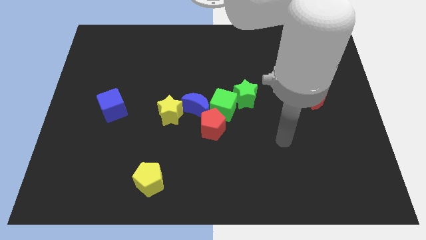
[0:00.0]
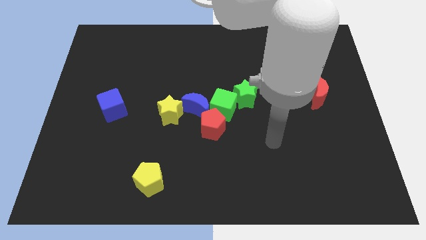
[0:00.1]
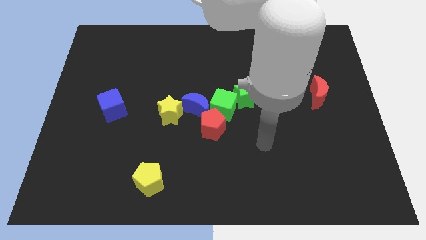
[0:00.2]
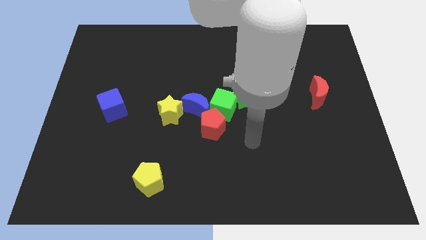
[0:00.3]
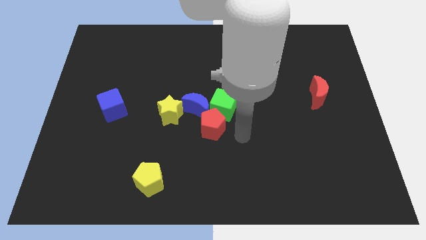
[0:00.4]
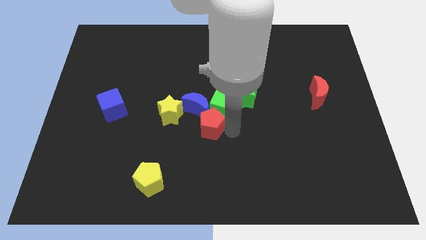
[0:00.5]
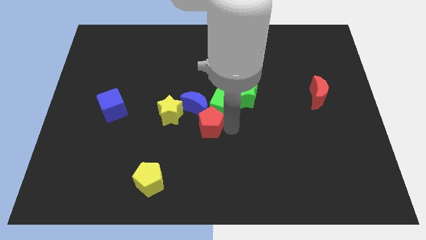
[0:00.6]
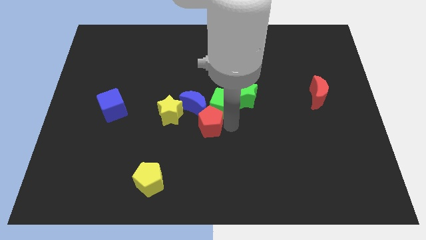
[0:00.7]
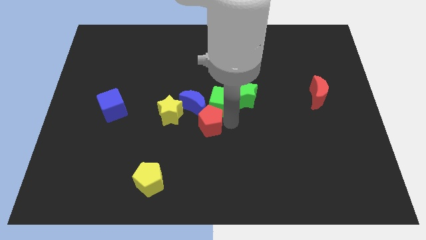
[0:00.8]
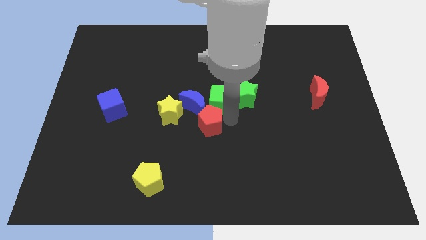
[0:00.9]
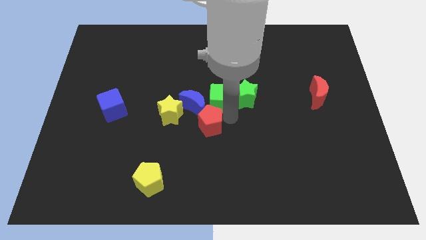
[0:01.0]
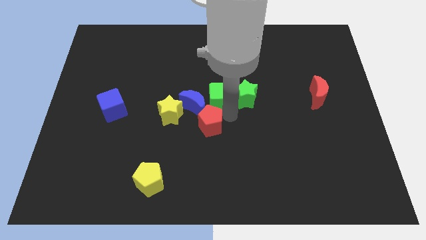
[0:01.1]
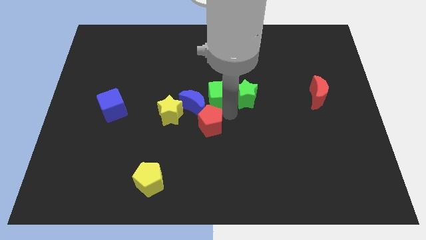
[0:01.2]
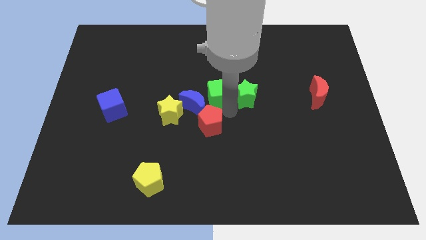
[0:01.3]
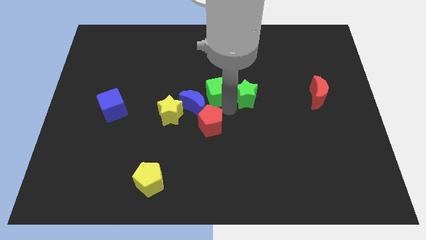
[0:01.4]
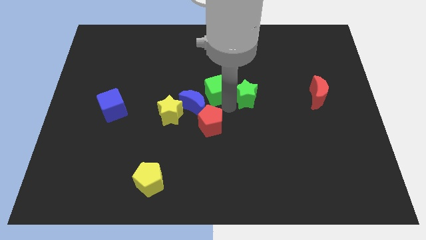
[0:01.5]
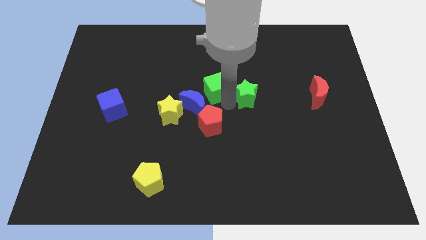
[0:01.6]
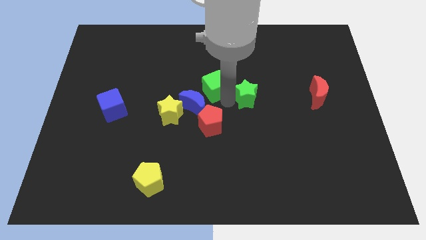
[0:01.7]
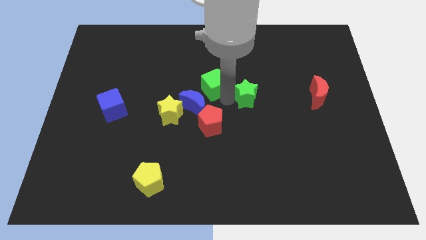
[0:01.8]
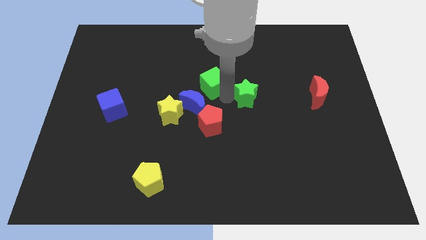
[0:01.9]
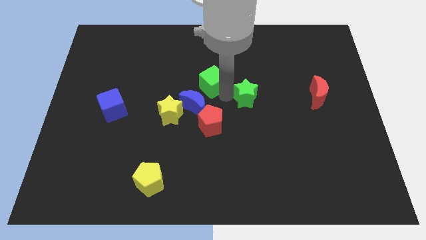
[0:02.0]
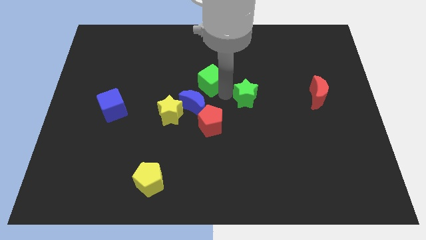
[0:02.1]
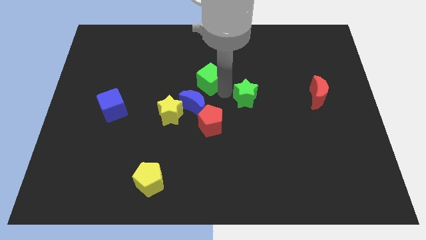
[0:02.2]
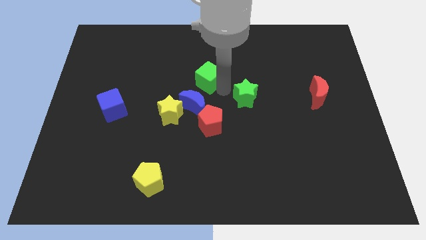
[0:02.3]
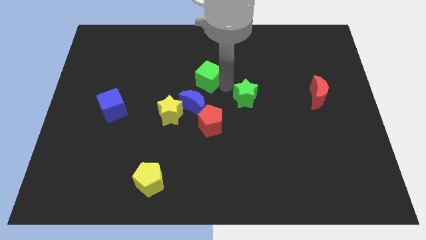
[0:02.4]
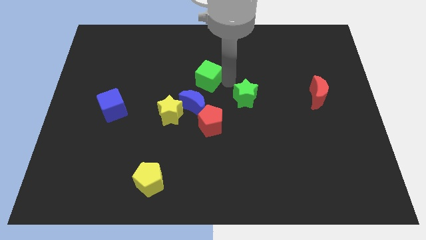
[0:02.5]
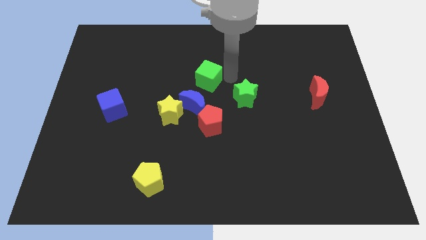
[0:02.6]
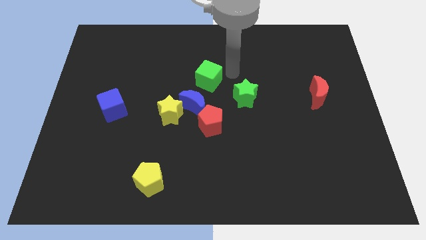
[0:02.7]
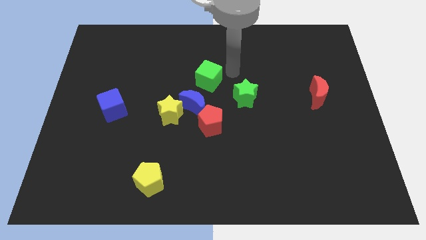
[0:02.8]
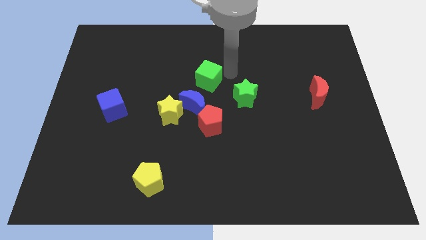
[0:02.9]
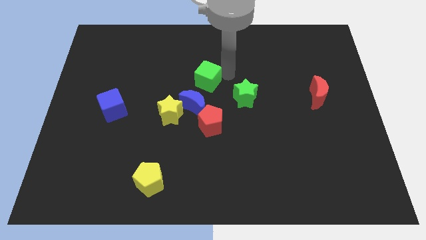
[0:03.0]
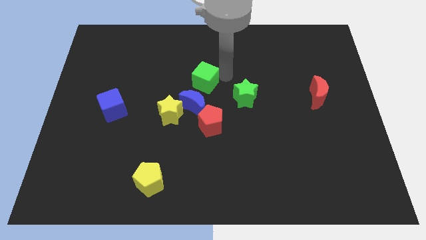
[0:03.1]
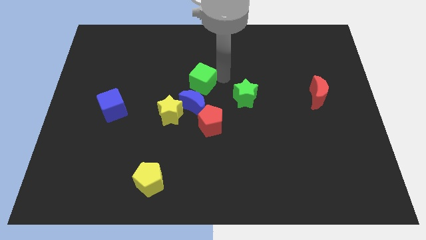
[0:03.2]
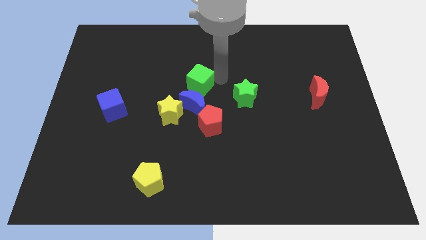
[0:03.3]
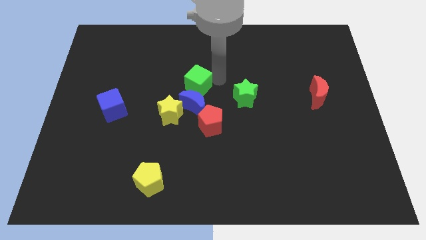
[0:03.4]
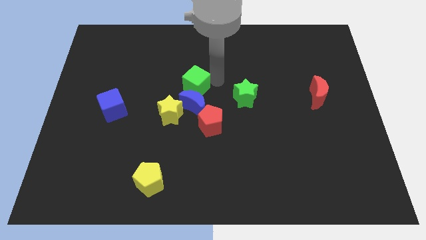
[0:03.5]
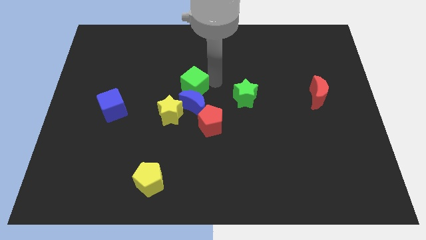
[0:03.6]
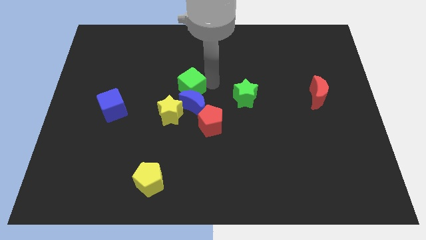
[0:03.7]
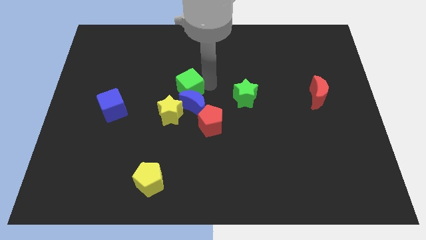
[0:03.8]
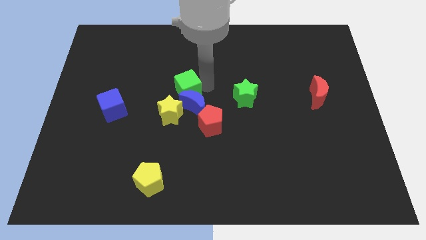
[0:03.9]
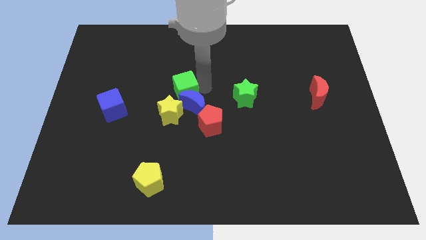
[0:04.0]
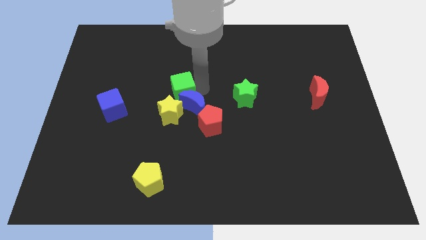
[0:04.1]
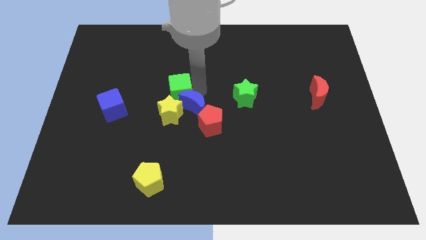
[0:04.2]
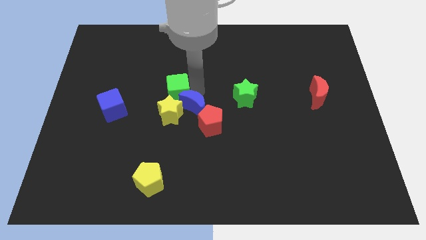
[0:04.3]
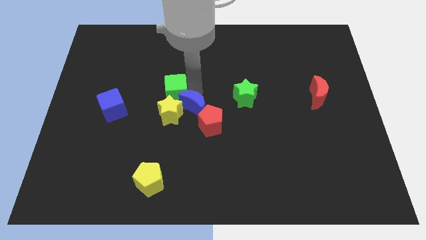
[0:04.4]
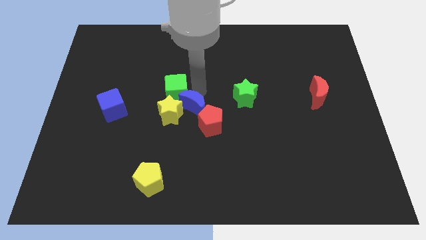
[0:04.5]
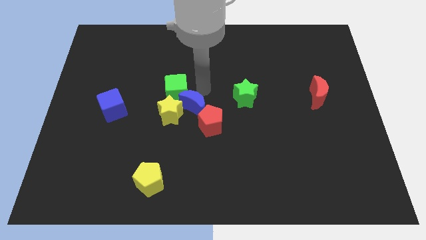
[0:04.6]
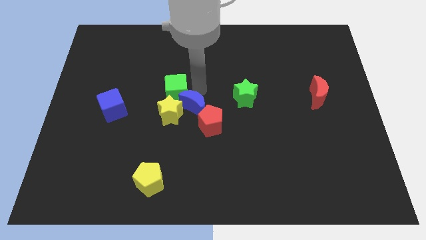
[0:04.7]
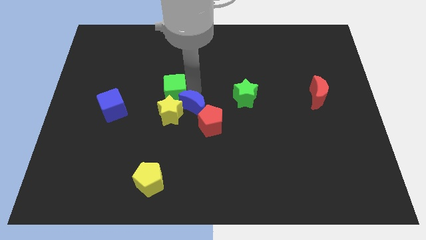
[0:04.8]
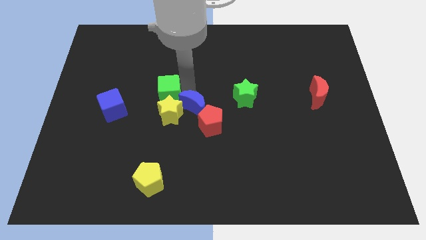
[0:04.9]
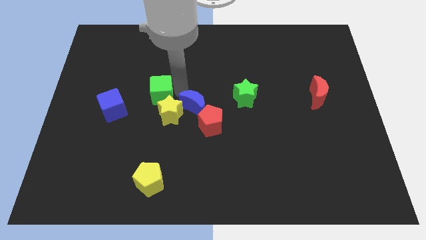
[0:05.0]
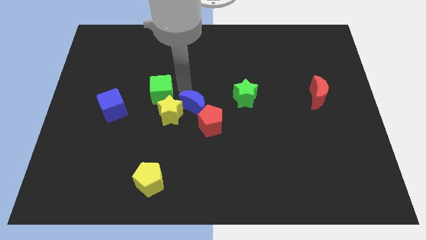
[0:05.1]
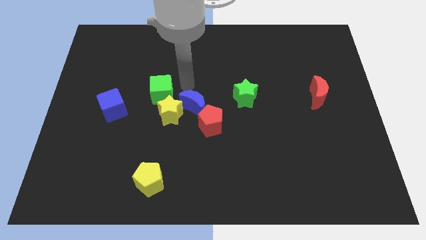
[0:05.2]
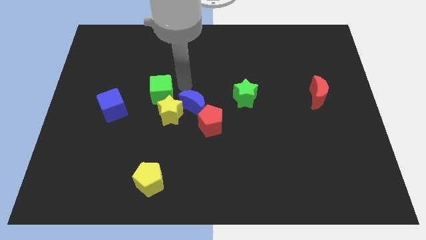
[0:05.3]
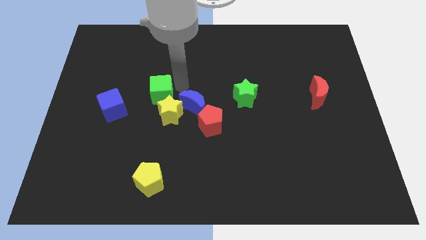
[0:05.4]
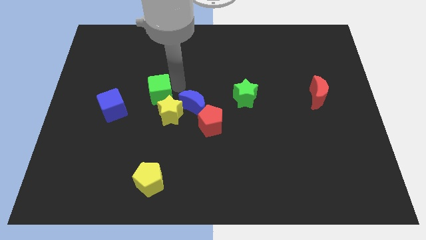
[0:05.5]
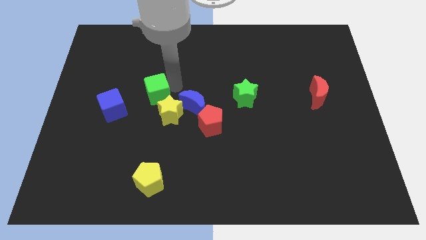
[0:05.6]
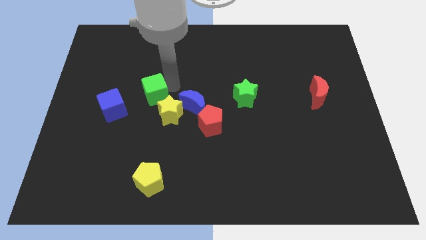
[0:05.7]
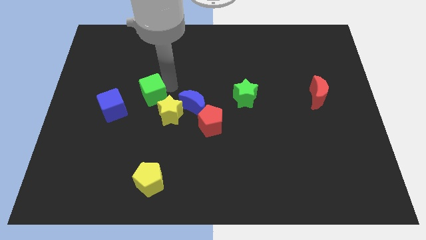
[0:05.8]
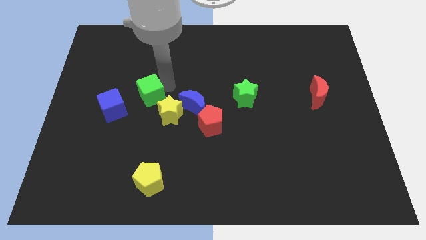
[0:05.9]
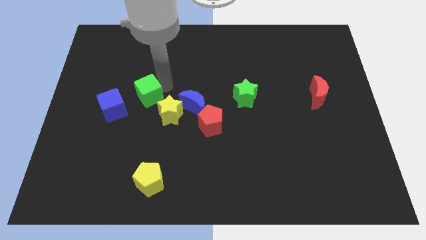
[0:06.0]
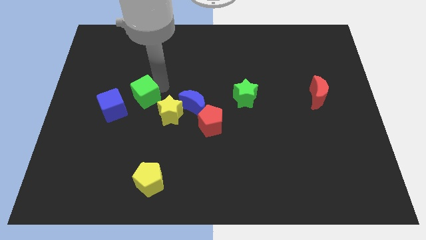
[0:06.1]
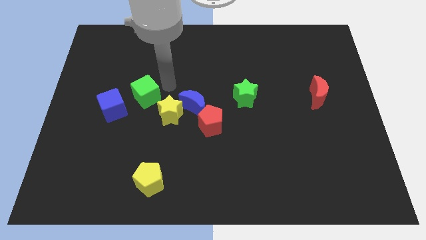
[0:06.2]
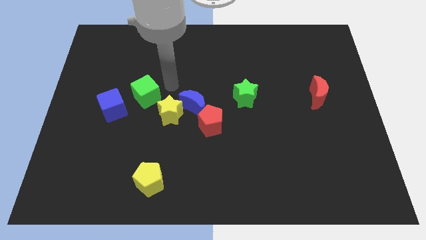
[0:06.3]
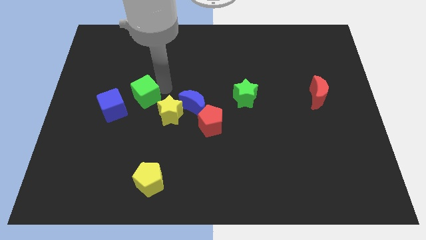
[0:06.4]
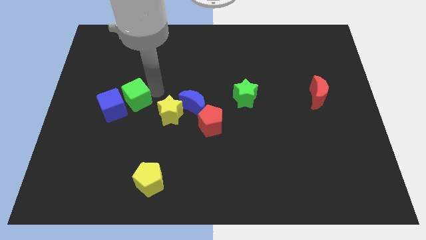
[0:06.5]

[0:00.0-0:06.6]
slide the green cube to the blue cube
